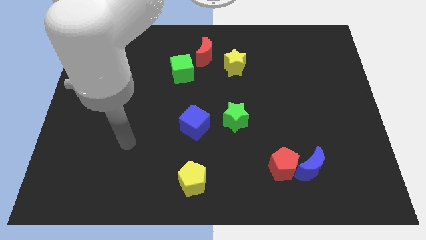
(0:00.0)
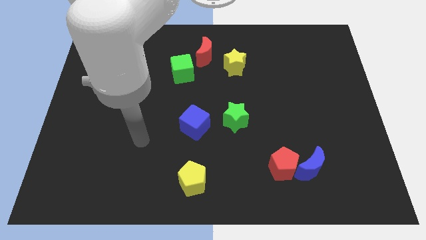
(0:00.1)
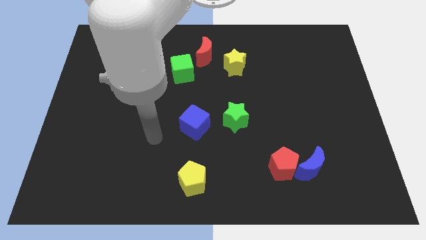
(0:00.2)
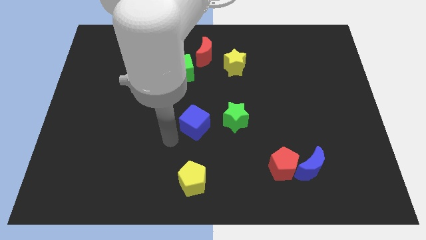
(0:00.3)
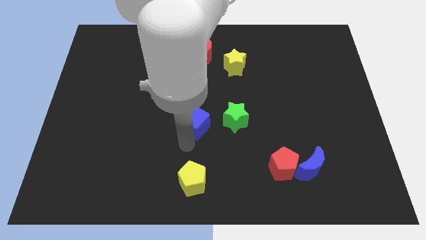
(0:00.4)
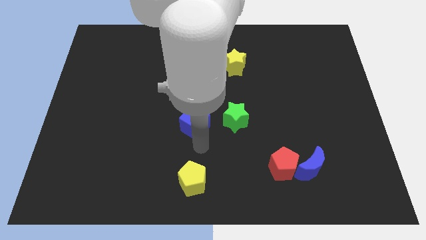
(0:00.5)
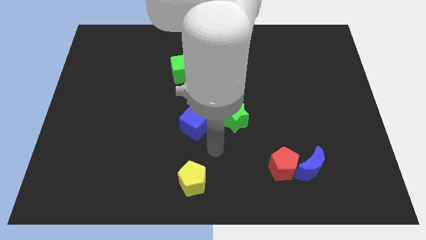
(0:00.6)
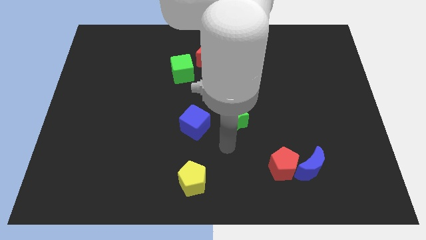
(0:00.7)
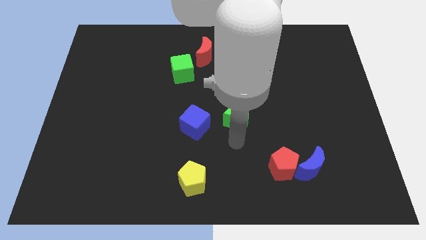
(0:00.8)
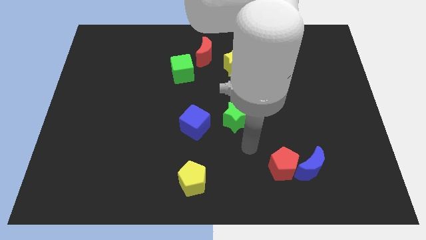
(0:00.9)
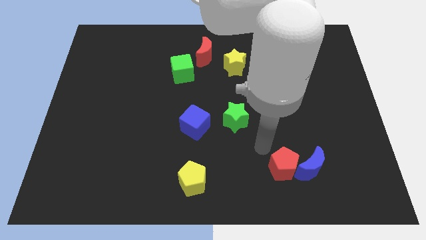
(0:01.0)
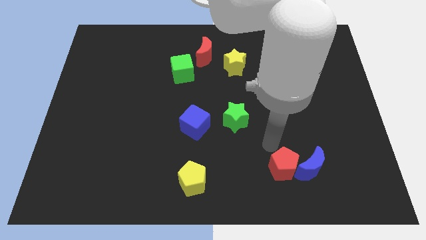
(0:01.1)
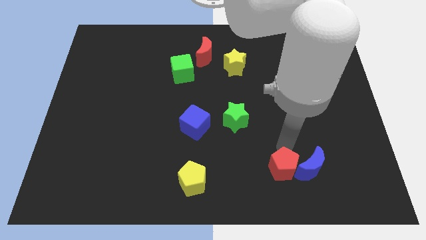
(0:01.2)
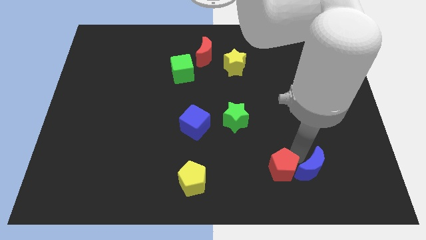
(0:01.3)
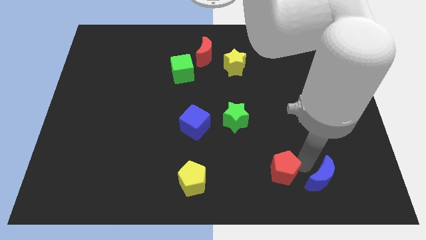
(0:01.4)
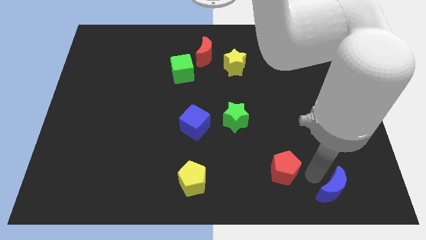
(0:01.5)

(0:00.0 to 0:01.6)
move the red pentagon away from the blue moon

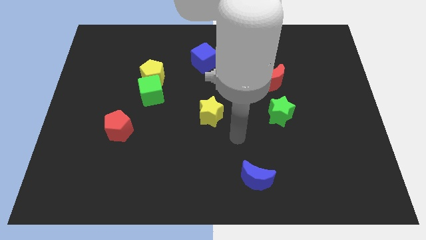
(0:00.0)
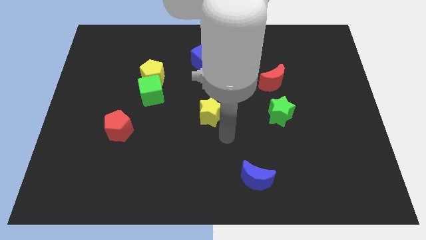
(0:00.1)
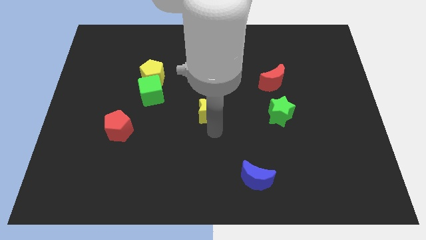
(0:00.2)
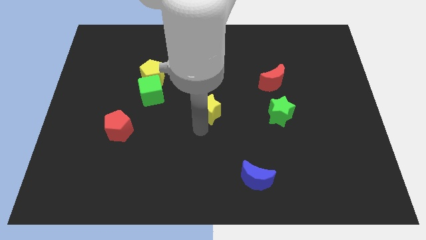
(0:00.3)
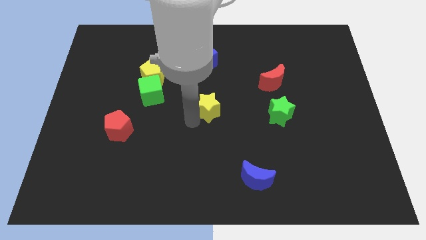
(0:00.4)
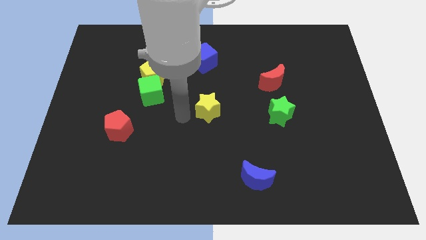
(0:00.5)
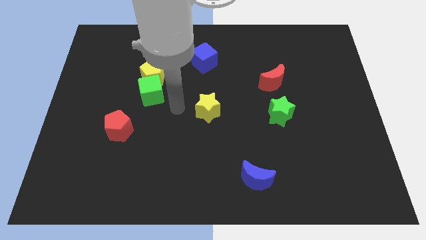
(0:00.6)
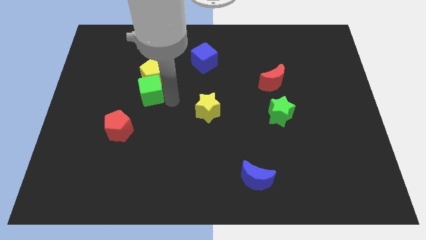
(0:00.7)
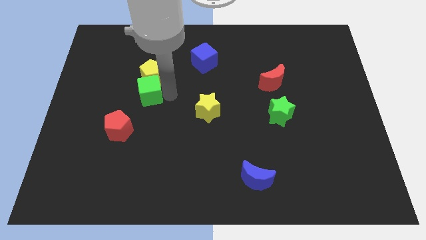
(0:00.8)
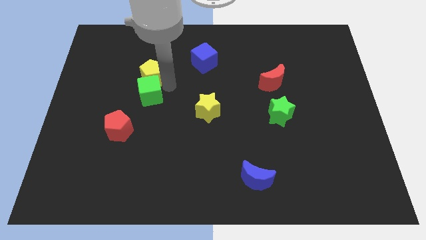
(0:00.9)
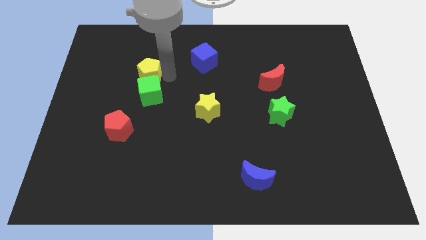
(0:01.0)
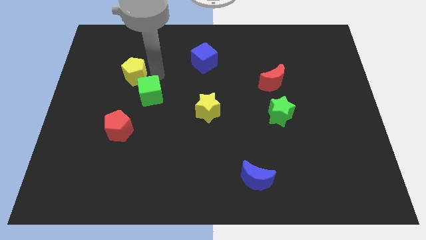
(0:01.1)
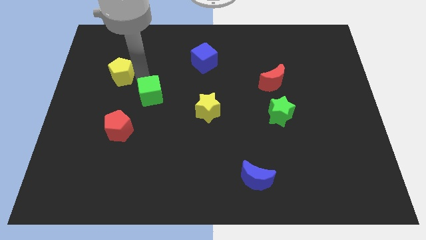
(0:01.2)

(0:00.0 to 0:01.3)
move the green cube away from the yellow pentagon

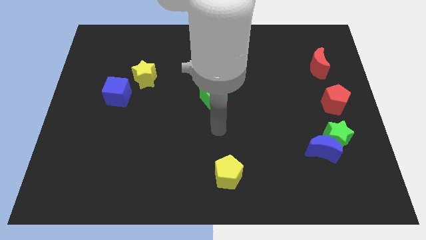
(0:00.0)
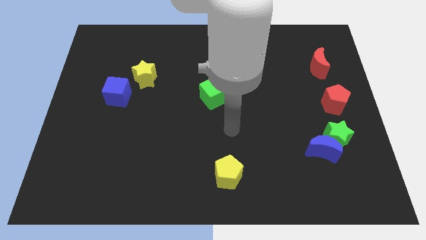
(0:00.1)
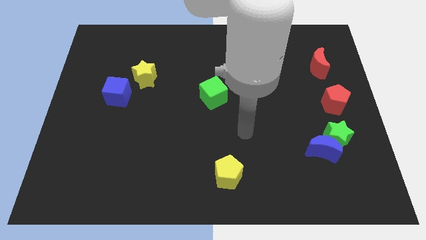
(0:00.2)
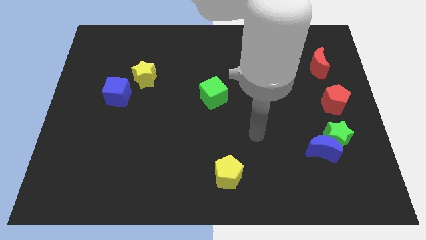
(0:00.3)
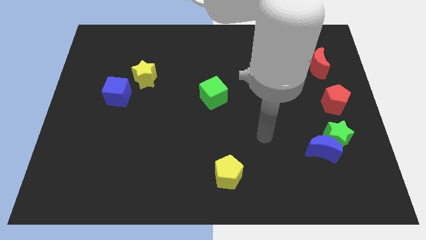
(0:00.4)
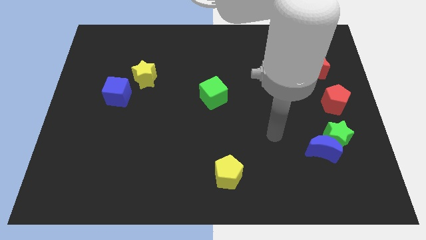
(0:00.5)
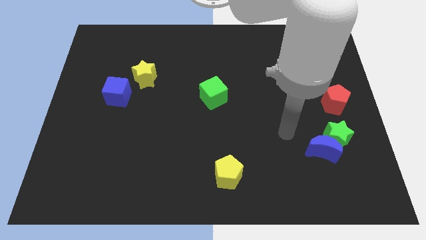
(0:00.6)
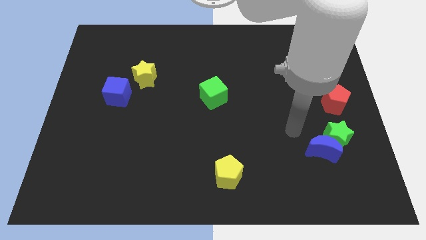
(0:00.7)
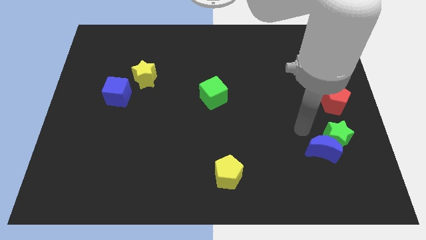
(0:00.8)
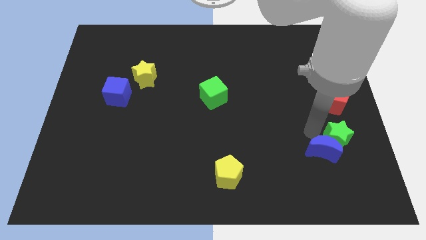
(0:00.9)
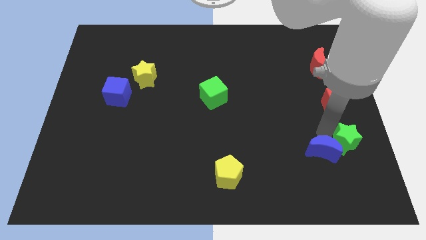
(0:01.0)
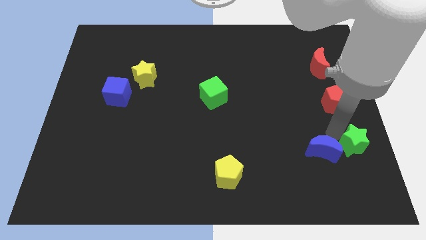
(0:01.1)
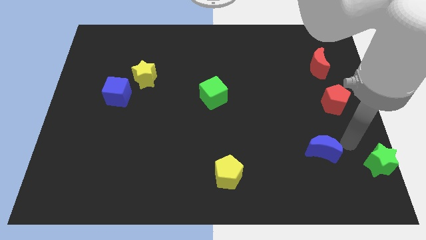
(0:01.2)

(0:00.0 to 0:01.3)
pull the blue moon apart from the green star

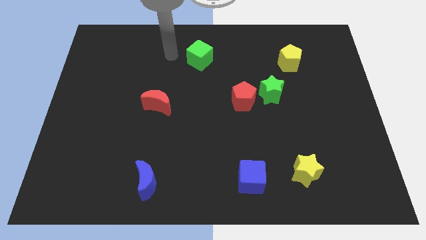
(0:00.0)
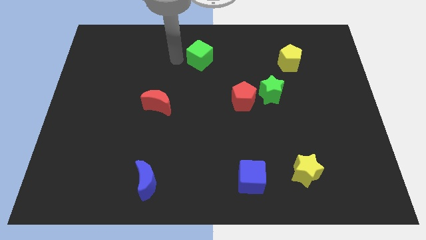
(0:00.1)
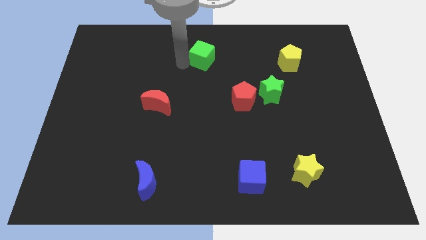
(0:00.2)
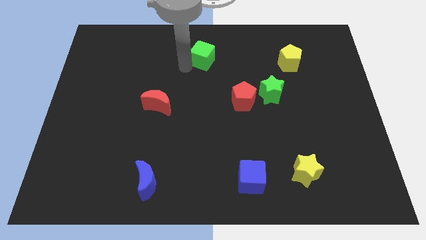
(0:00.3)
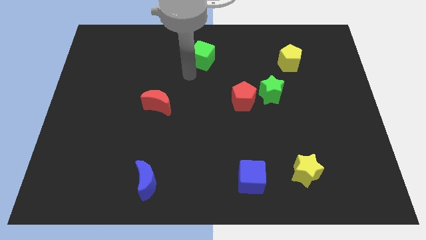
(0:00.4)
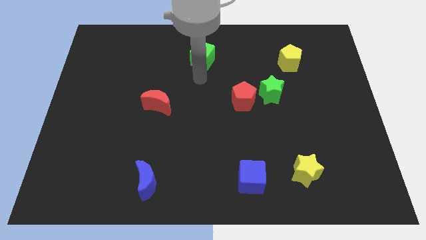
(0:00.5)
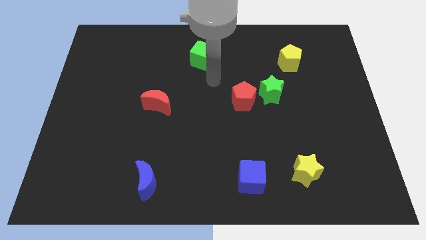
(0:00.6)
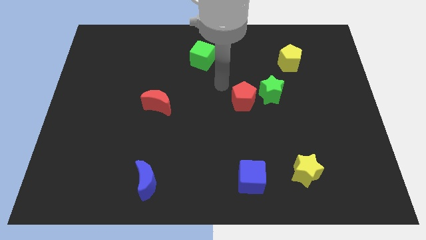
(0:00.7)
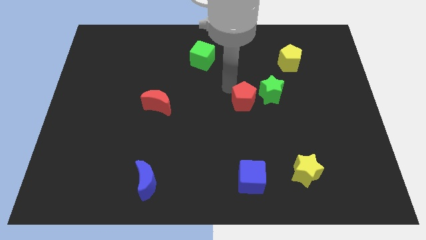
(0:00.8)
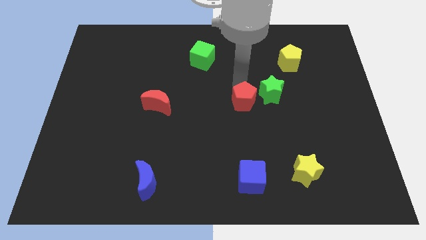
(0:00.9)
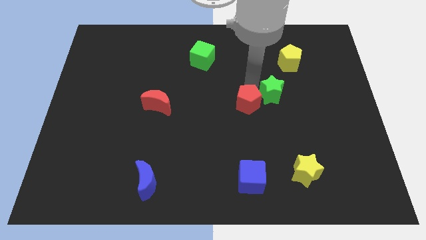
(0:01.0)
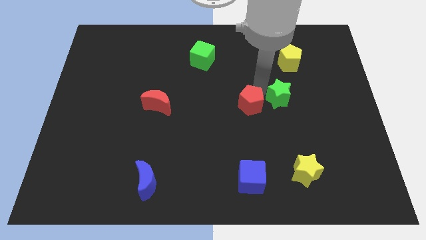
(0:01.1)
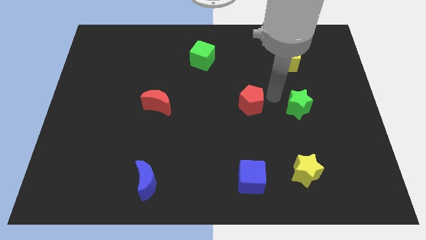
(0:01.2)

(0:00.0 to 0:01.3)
move the red pentagon away from the green star

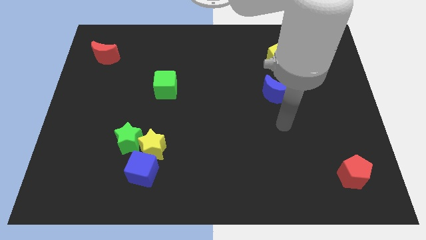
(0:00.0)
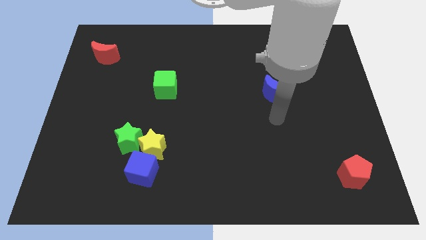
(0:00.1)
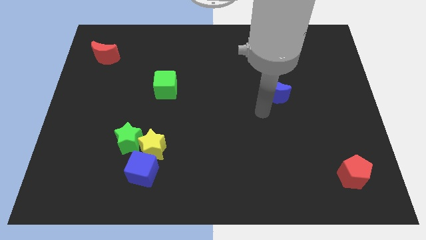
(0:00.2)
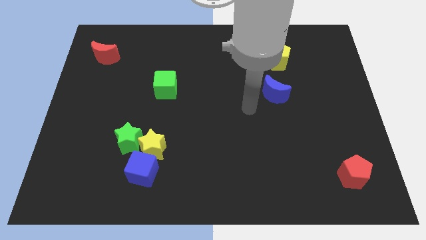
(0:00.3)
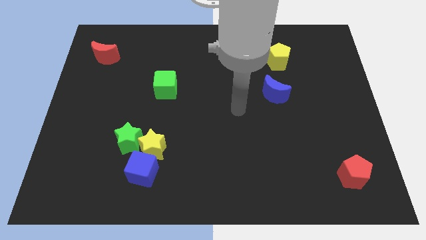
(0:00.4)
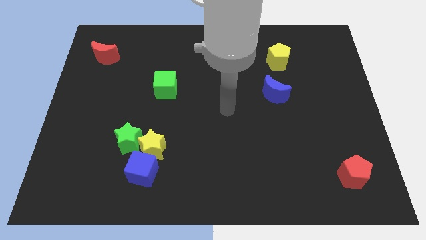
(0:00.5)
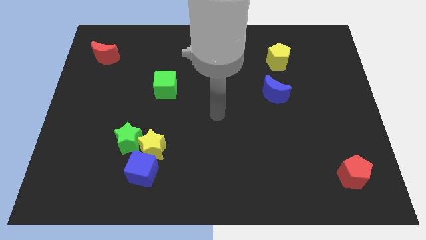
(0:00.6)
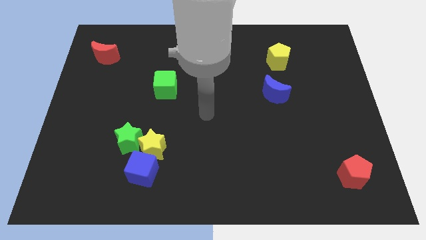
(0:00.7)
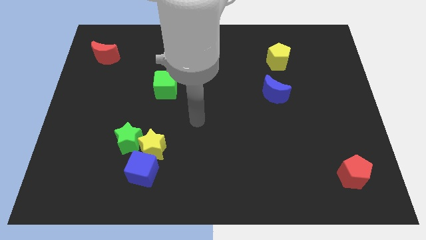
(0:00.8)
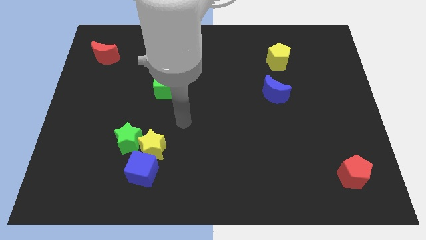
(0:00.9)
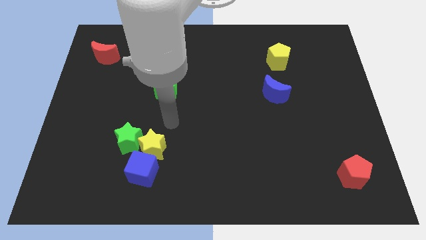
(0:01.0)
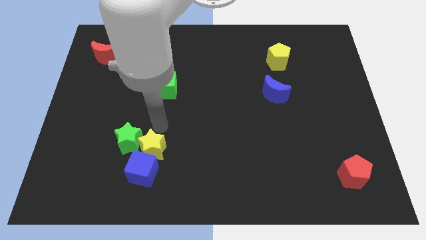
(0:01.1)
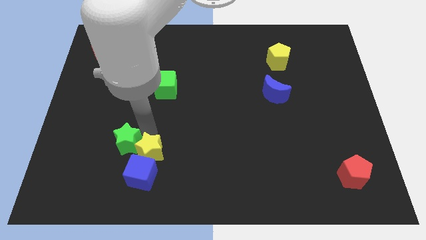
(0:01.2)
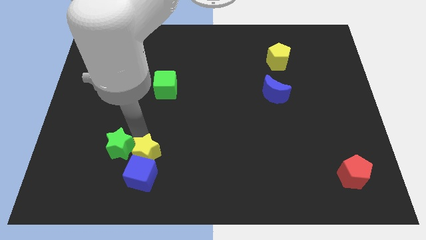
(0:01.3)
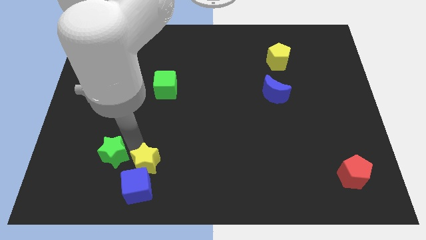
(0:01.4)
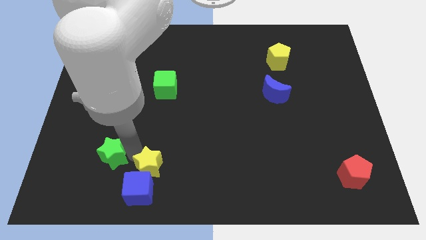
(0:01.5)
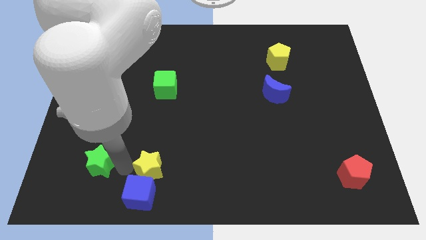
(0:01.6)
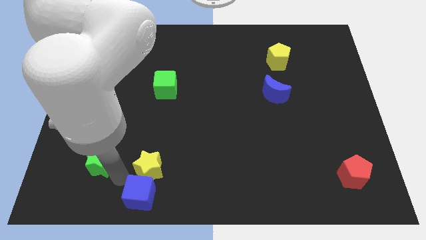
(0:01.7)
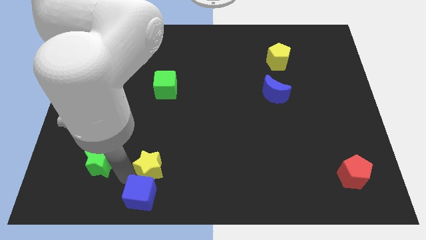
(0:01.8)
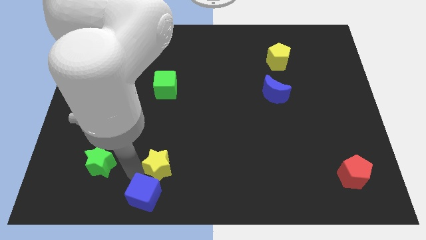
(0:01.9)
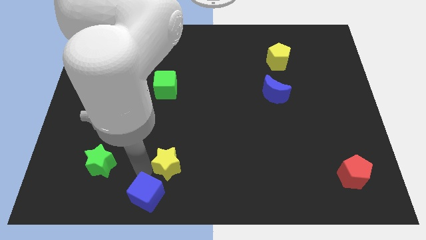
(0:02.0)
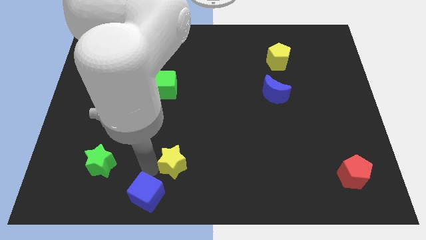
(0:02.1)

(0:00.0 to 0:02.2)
separate the yellow star from the green star and blue cube

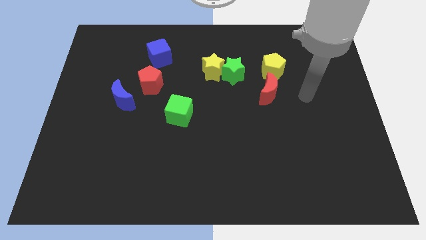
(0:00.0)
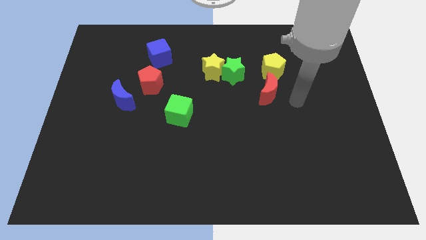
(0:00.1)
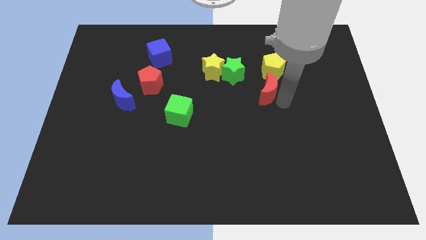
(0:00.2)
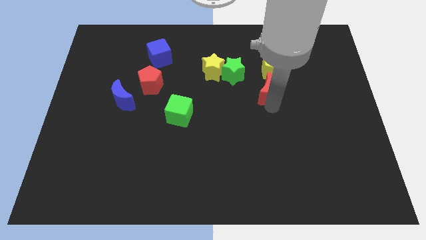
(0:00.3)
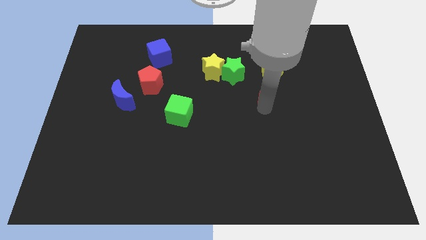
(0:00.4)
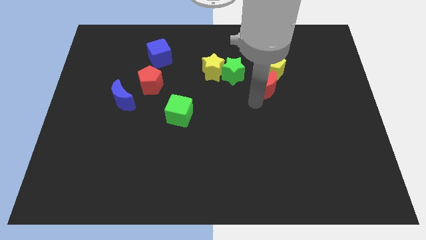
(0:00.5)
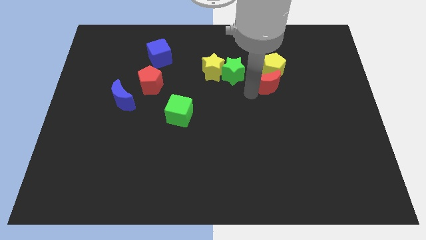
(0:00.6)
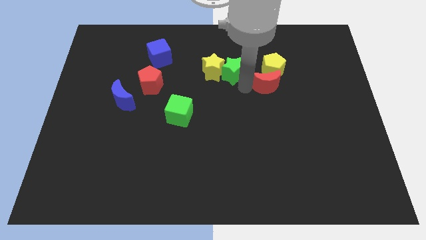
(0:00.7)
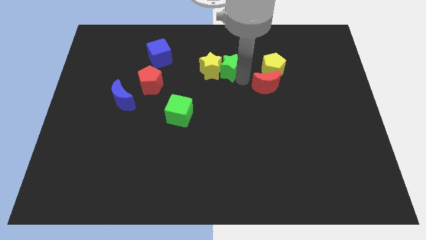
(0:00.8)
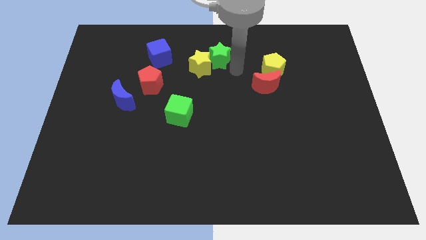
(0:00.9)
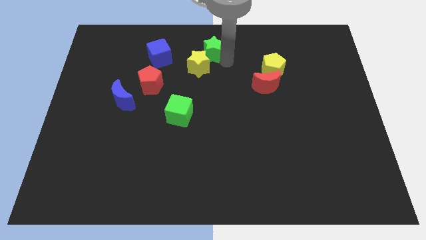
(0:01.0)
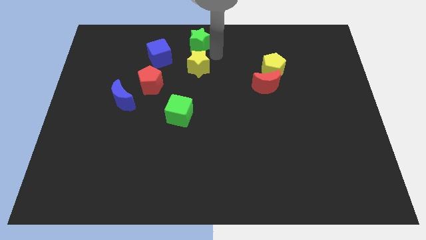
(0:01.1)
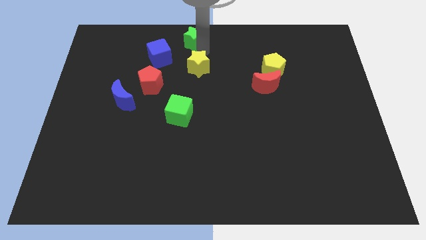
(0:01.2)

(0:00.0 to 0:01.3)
move the yellow star away from the green star

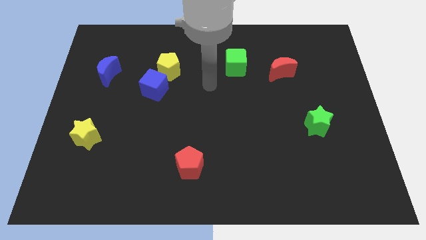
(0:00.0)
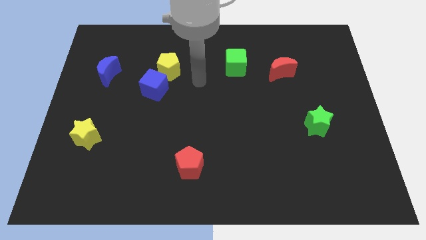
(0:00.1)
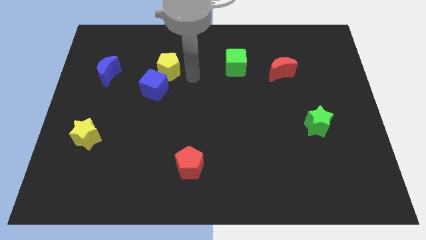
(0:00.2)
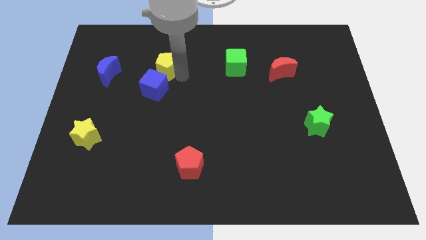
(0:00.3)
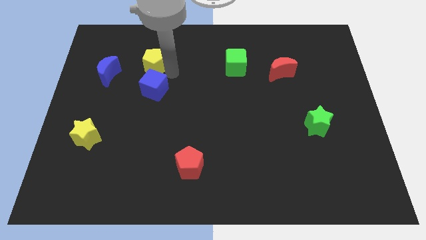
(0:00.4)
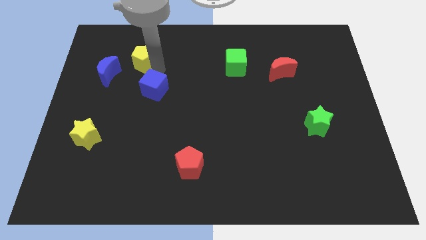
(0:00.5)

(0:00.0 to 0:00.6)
move the blue cube away from the yellow pentagon
